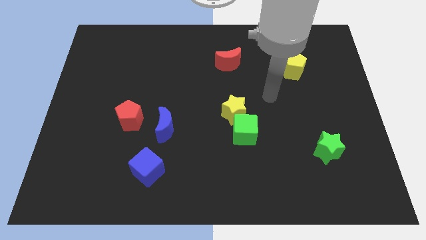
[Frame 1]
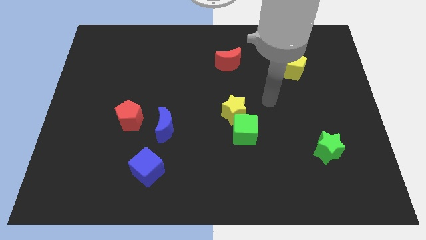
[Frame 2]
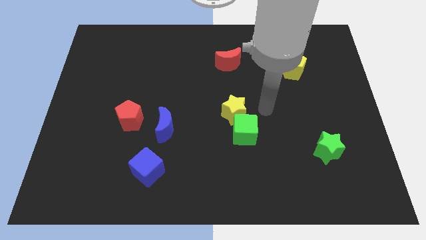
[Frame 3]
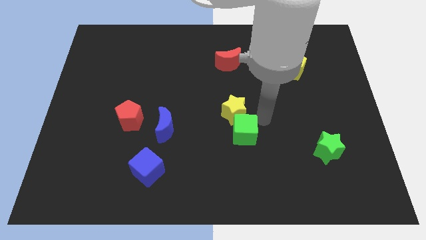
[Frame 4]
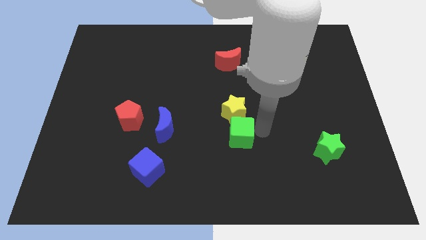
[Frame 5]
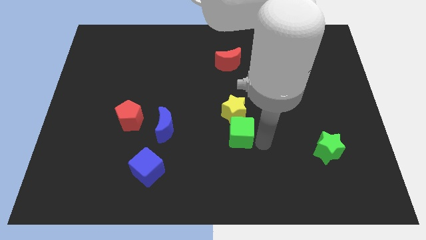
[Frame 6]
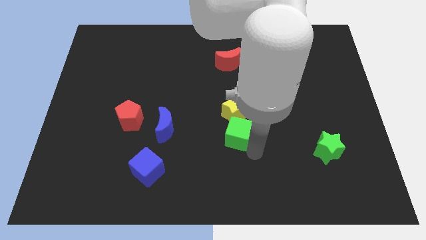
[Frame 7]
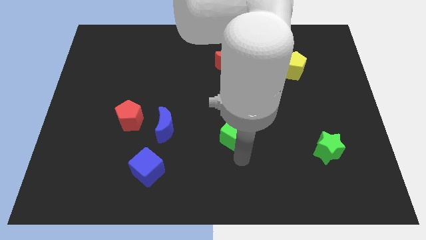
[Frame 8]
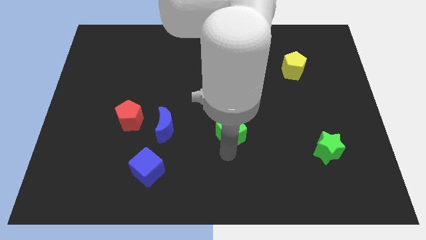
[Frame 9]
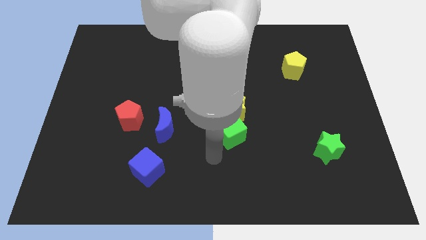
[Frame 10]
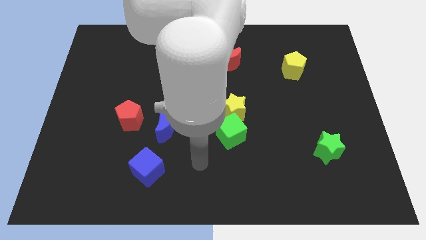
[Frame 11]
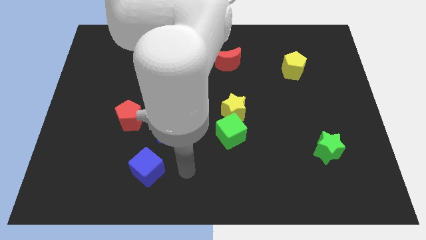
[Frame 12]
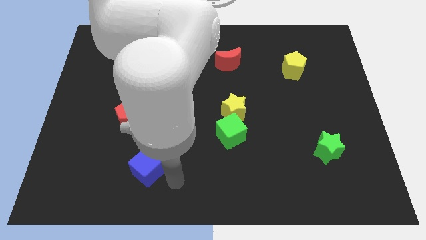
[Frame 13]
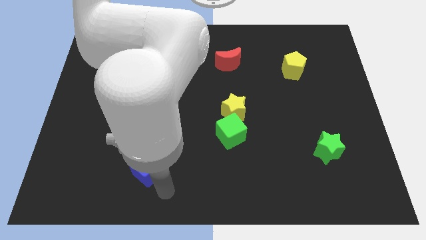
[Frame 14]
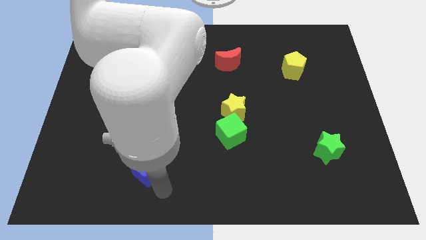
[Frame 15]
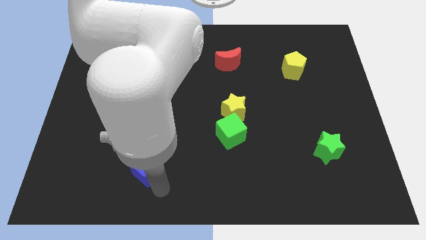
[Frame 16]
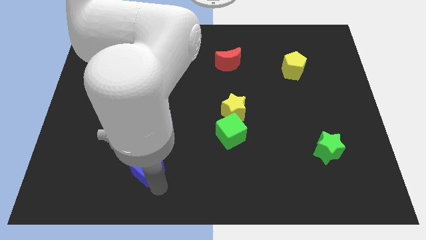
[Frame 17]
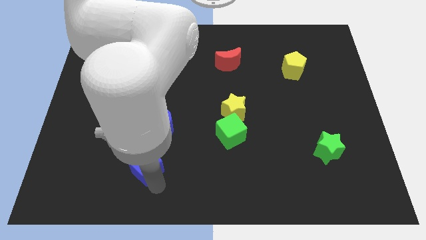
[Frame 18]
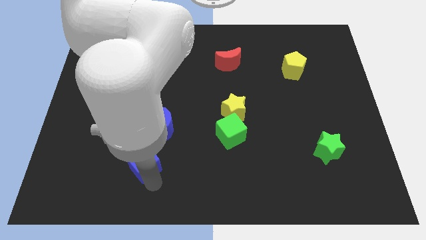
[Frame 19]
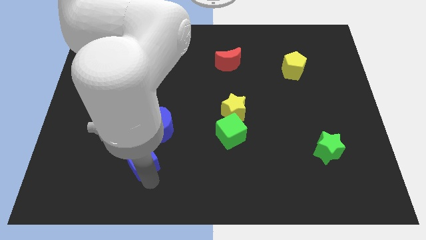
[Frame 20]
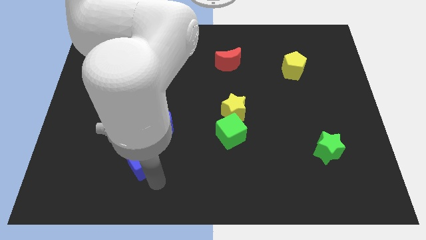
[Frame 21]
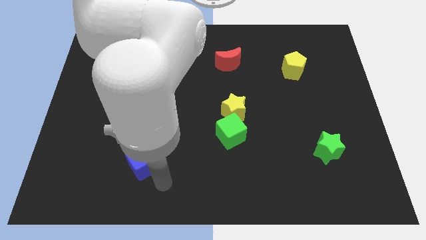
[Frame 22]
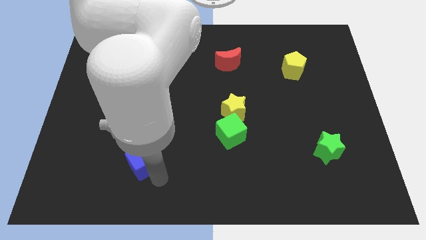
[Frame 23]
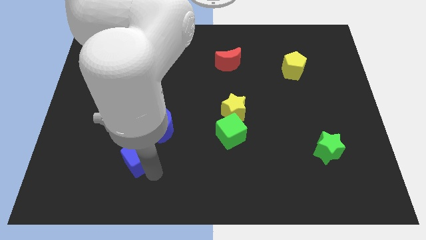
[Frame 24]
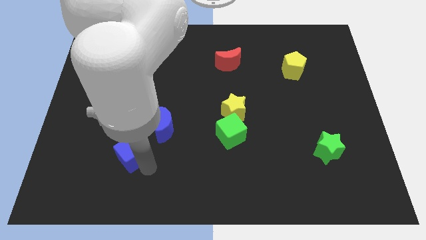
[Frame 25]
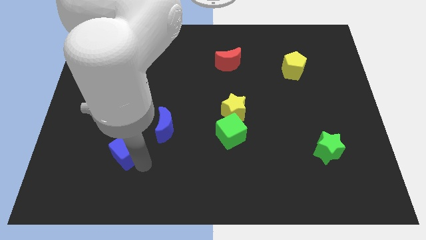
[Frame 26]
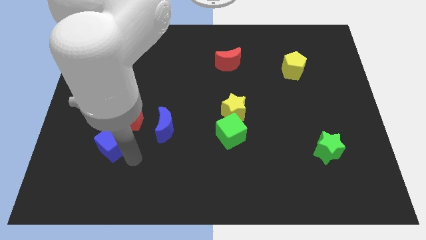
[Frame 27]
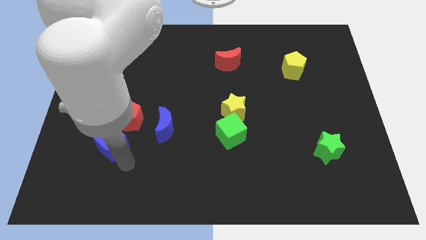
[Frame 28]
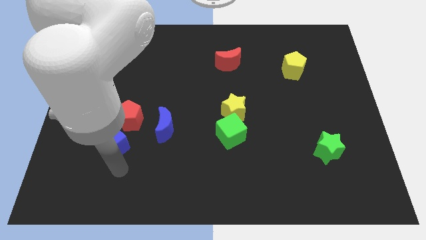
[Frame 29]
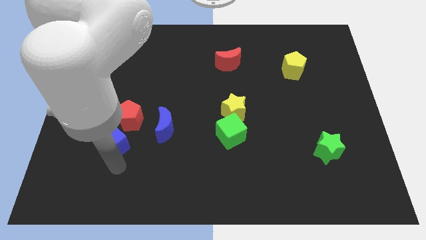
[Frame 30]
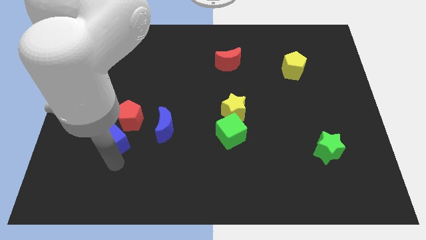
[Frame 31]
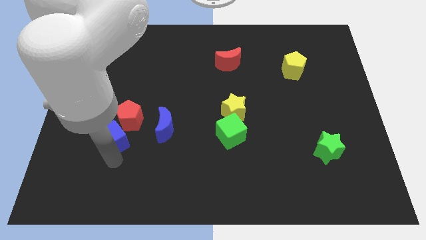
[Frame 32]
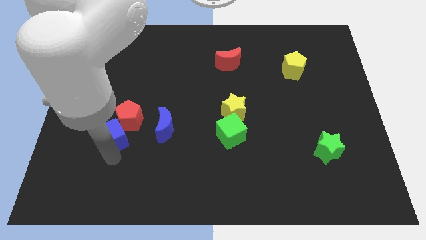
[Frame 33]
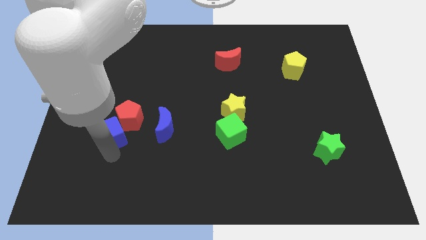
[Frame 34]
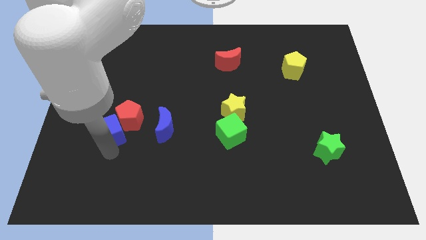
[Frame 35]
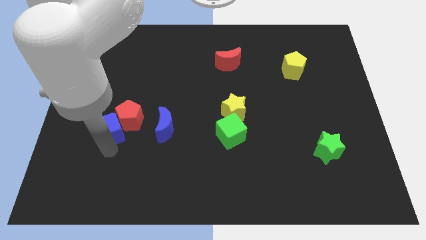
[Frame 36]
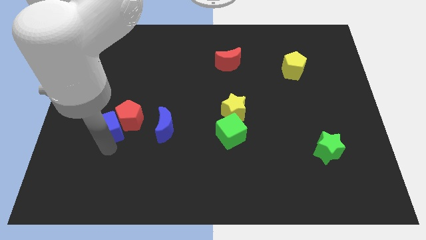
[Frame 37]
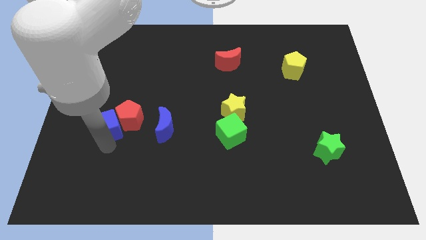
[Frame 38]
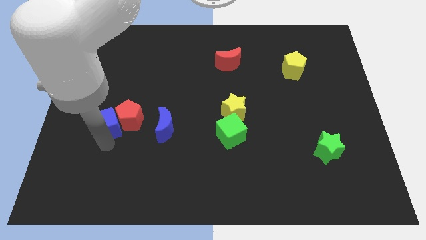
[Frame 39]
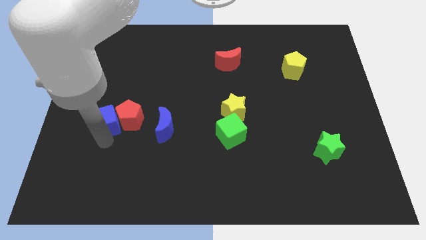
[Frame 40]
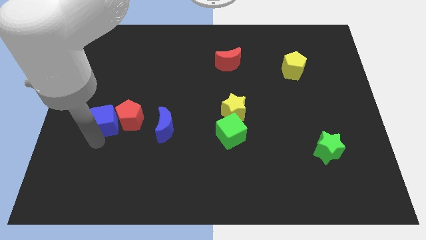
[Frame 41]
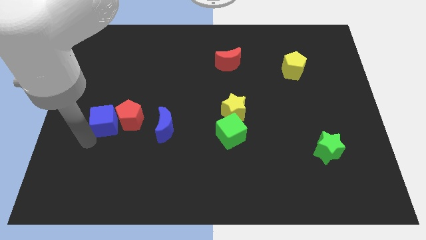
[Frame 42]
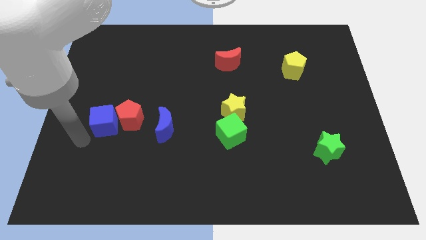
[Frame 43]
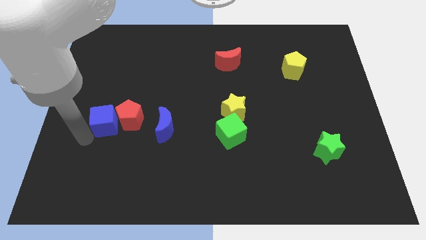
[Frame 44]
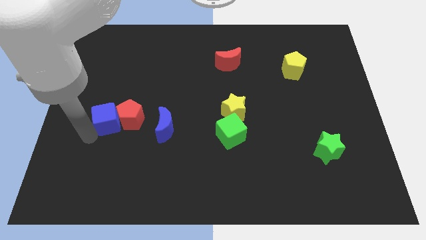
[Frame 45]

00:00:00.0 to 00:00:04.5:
slightly slide the blue cube upwards

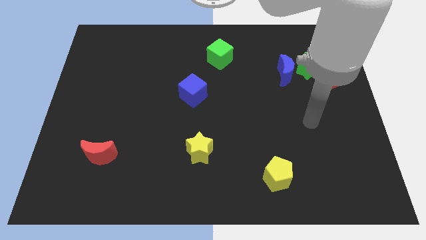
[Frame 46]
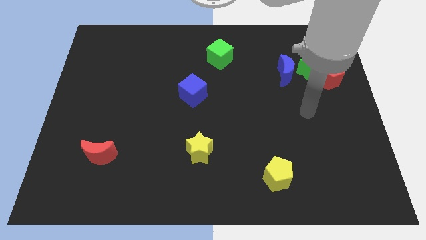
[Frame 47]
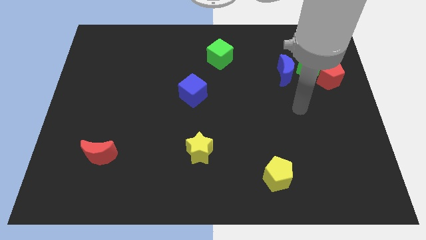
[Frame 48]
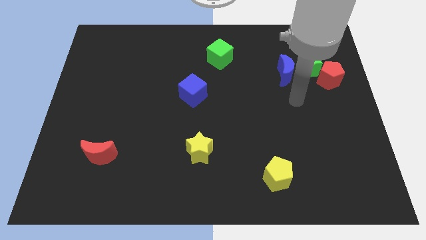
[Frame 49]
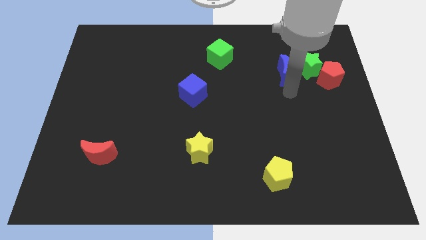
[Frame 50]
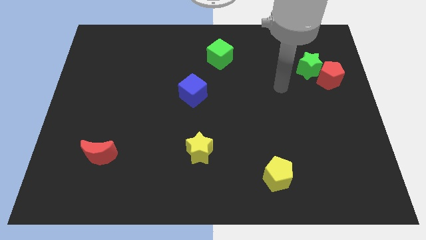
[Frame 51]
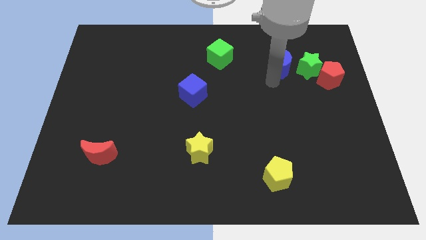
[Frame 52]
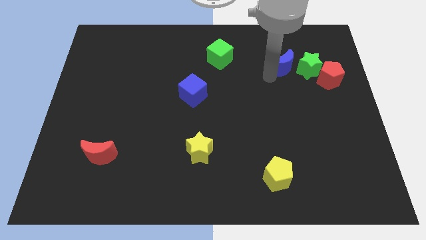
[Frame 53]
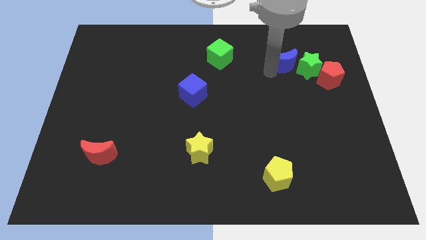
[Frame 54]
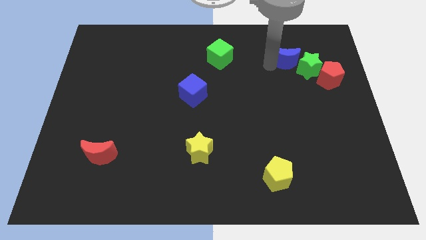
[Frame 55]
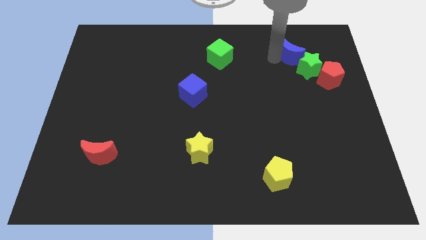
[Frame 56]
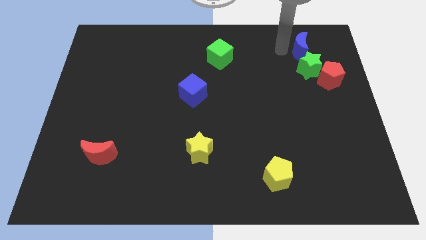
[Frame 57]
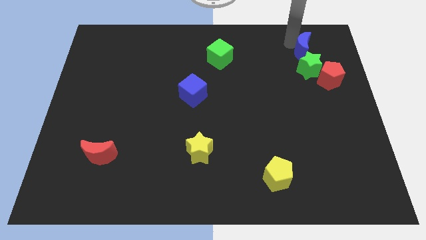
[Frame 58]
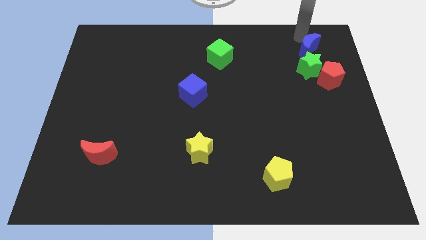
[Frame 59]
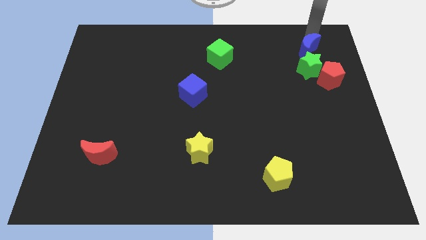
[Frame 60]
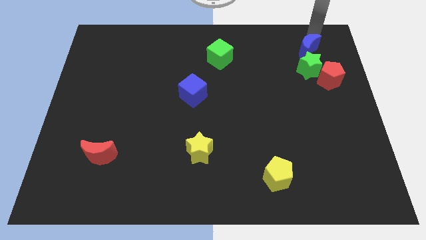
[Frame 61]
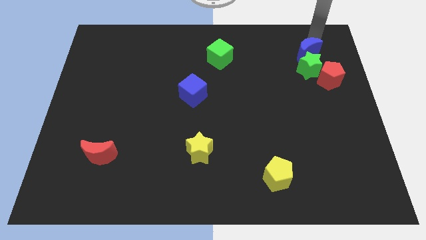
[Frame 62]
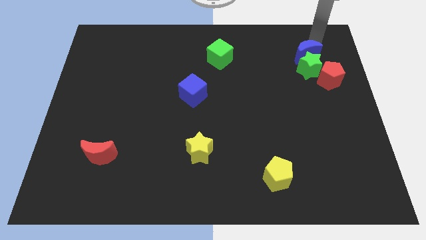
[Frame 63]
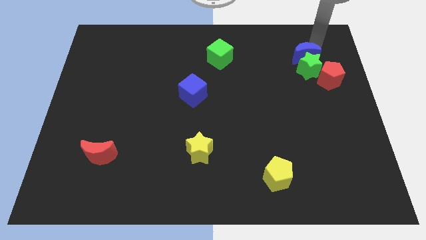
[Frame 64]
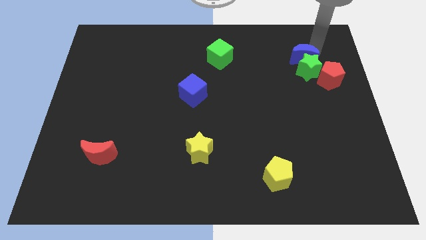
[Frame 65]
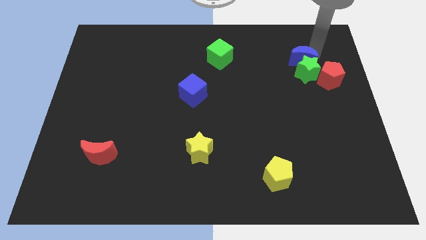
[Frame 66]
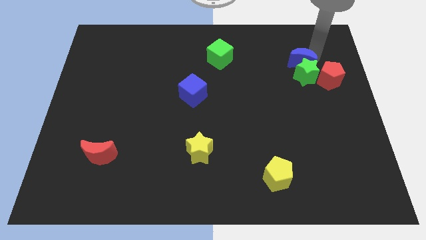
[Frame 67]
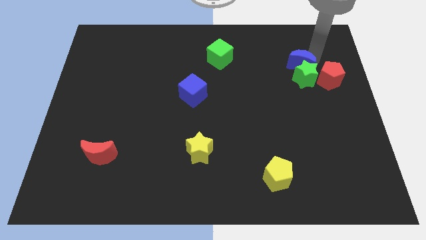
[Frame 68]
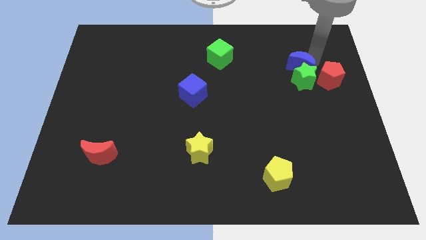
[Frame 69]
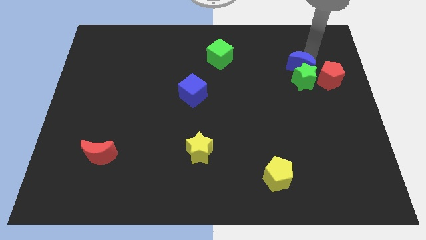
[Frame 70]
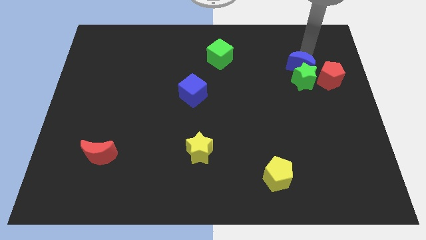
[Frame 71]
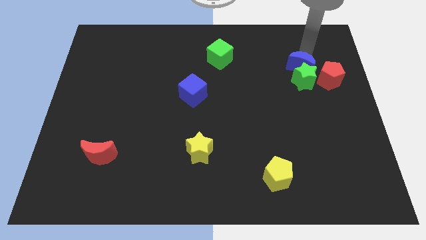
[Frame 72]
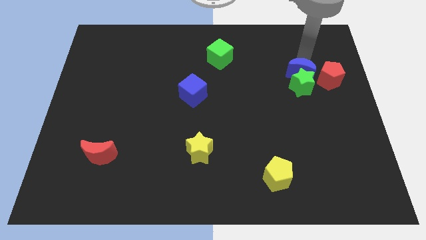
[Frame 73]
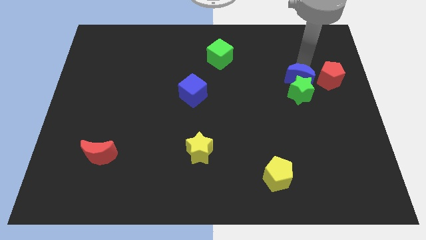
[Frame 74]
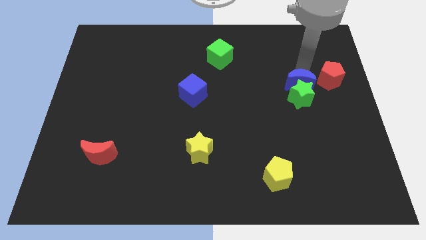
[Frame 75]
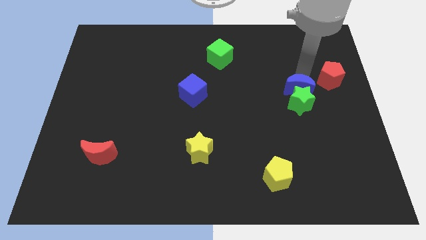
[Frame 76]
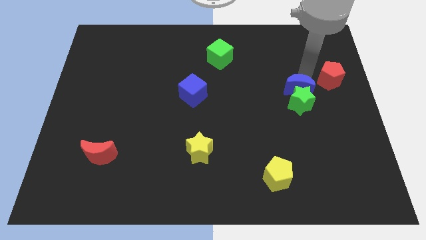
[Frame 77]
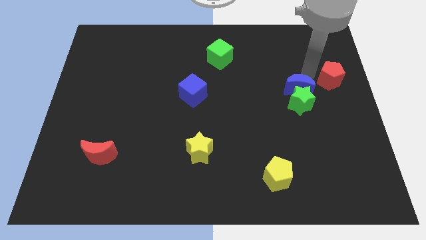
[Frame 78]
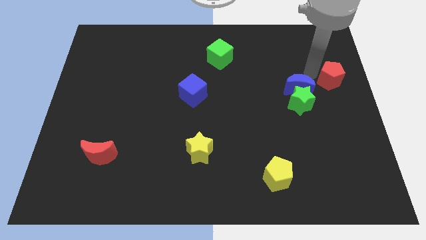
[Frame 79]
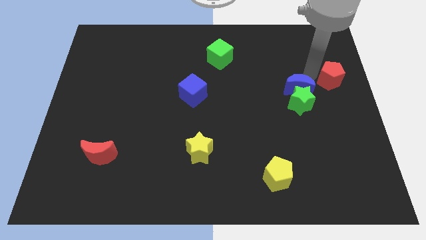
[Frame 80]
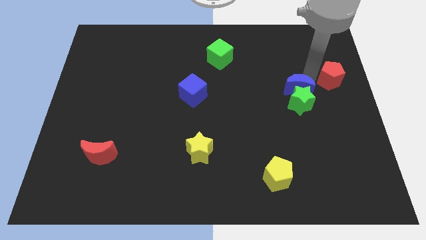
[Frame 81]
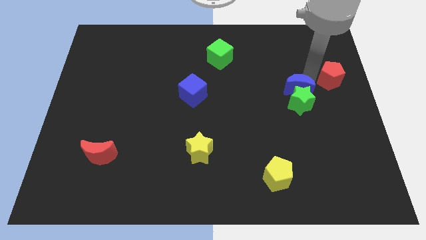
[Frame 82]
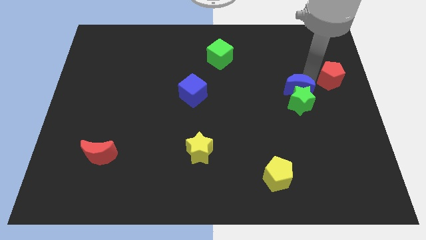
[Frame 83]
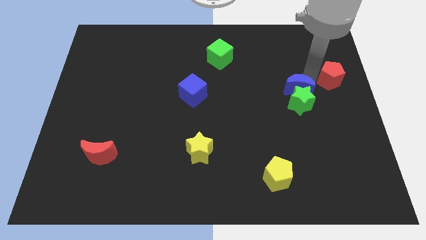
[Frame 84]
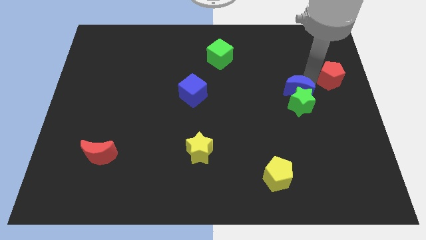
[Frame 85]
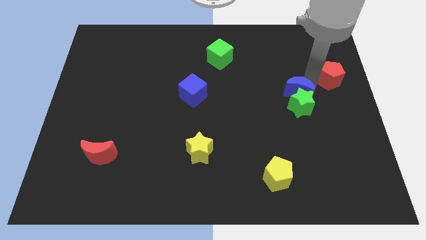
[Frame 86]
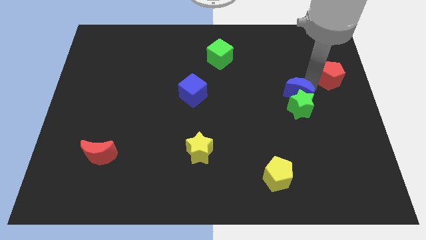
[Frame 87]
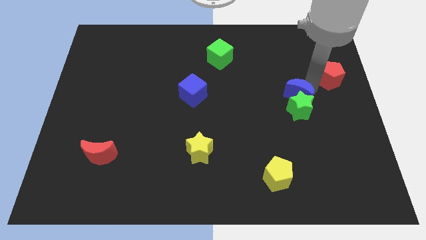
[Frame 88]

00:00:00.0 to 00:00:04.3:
slightly push the blue moon down
